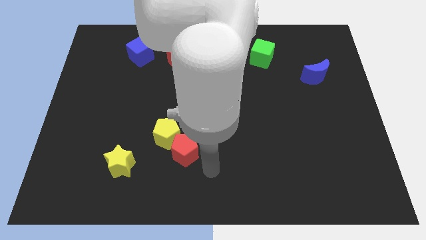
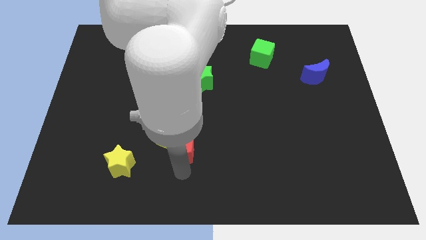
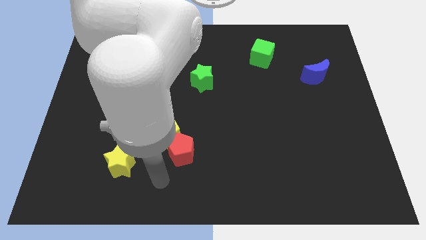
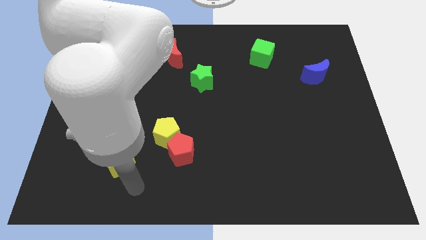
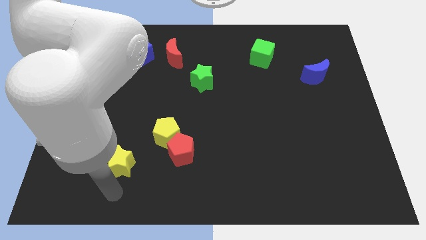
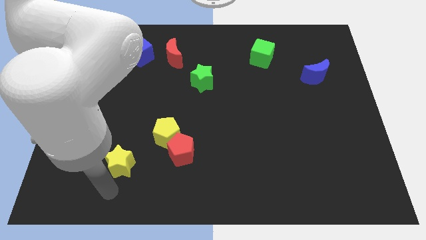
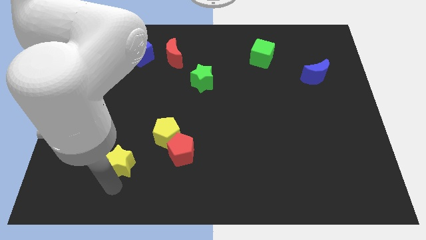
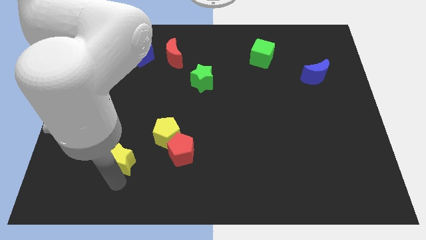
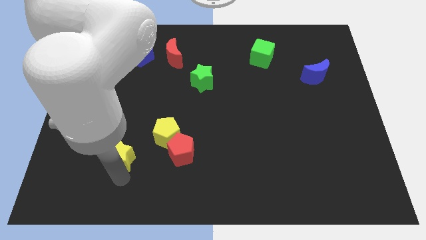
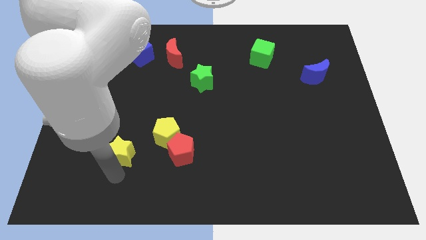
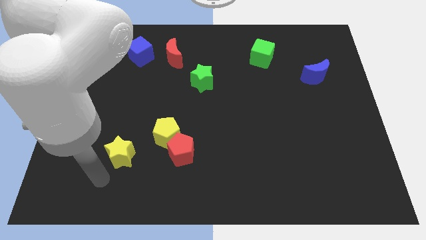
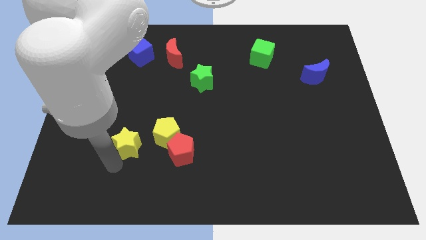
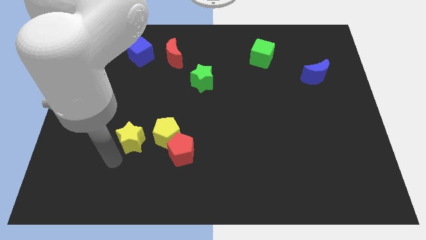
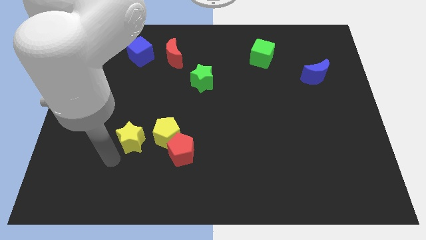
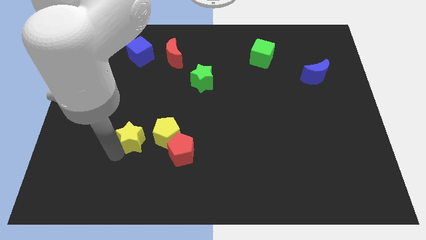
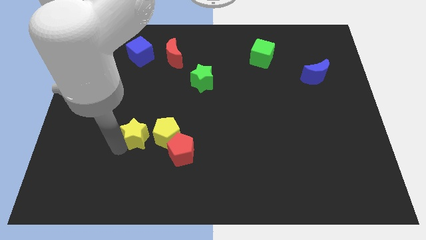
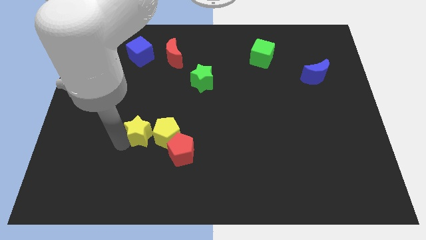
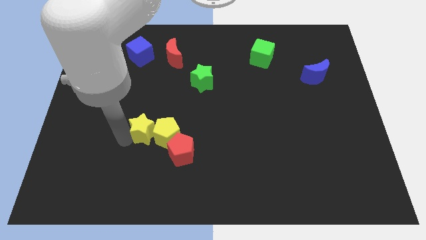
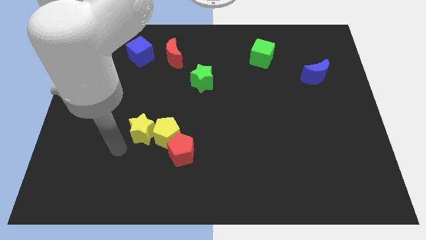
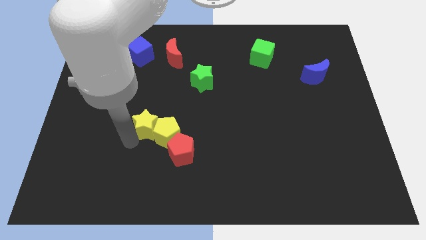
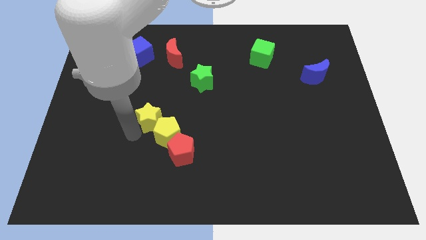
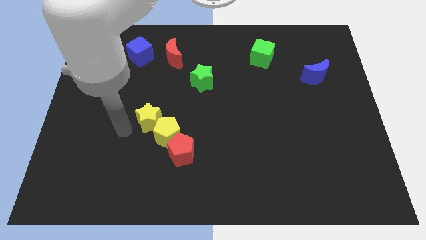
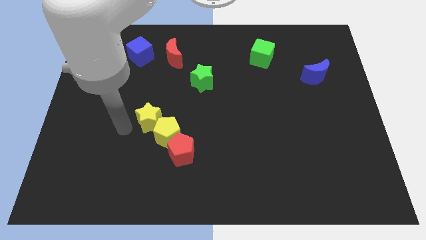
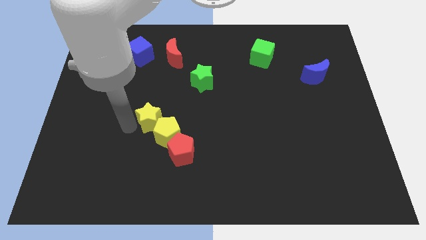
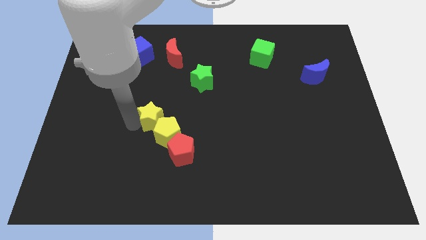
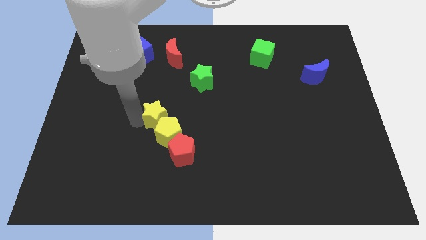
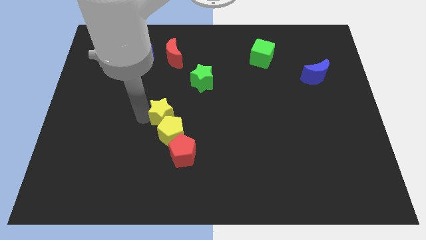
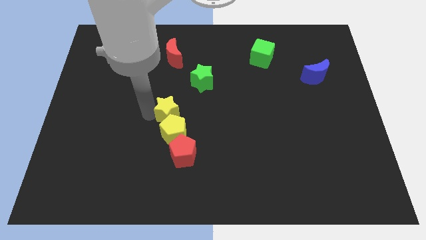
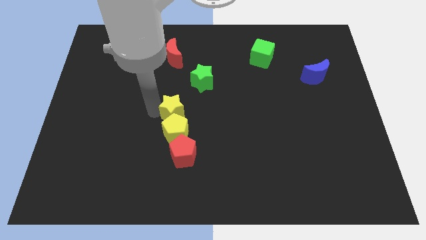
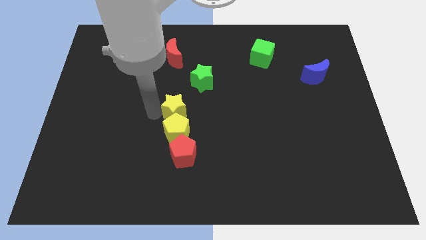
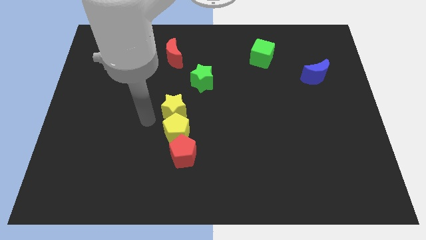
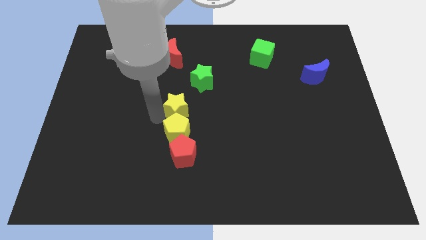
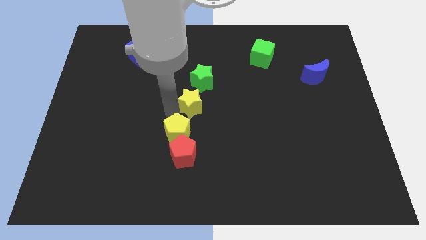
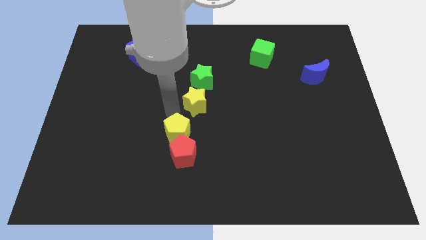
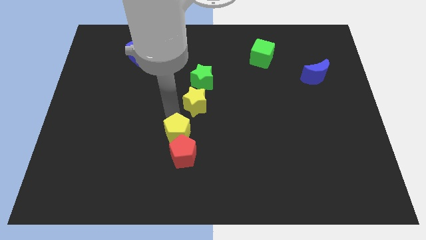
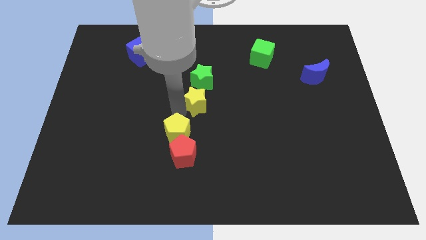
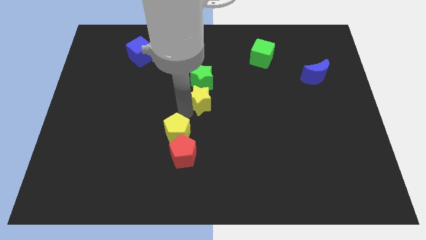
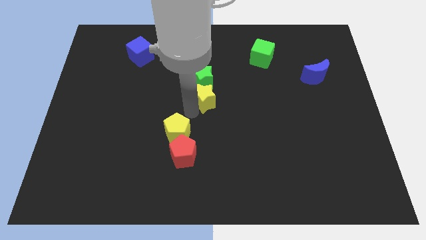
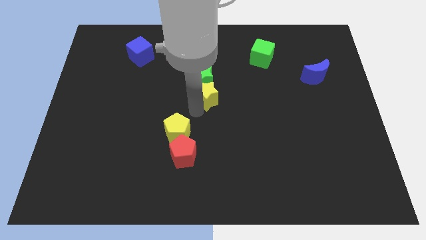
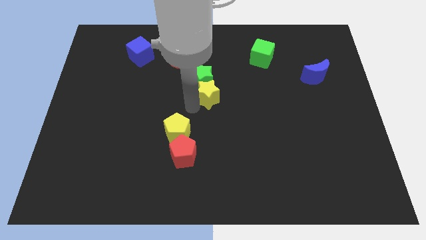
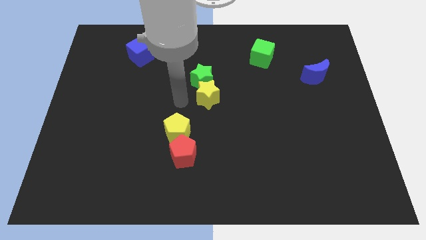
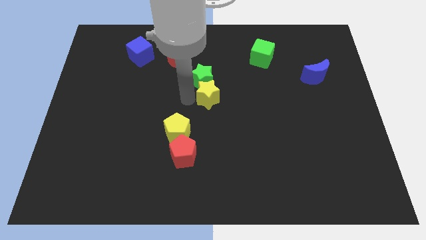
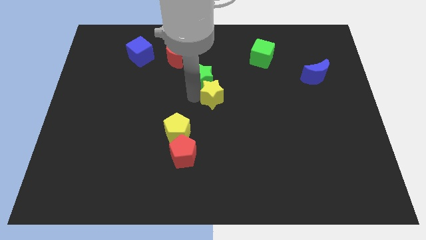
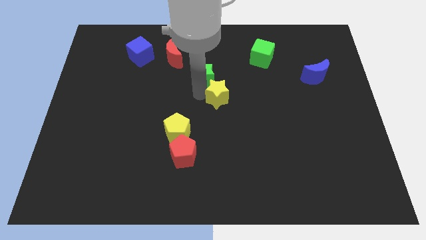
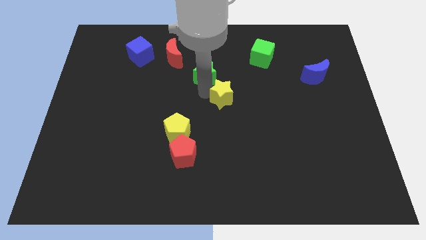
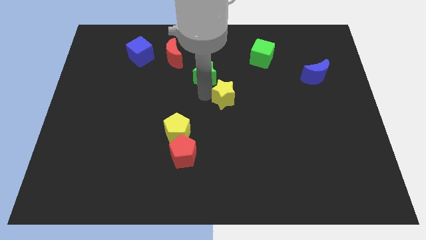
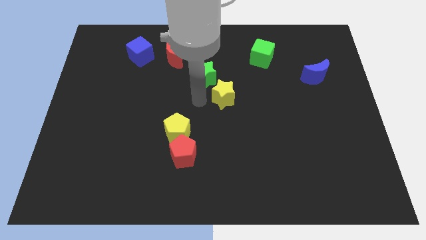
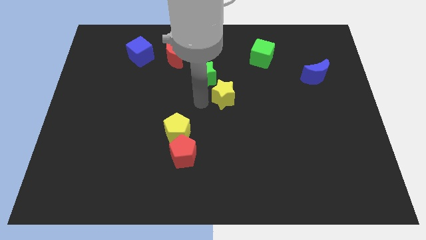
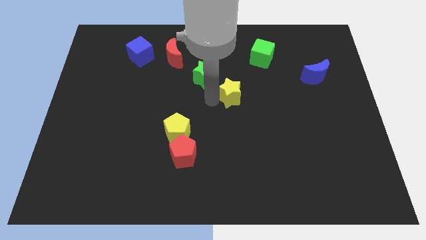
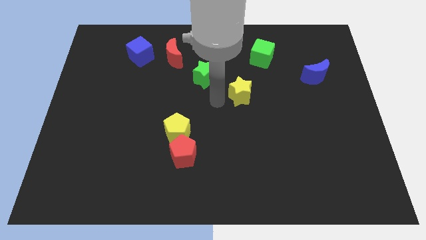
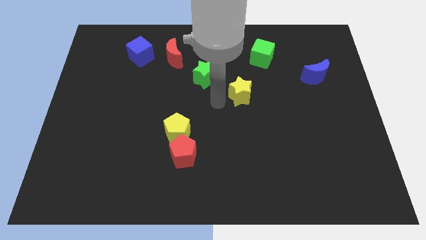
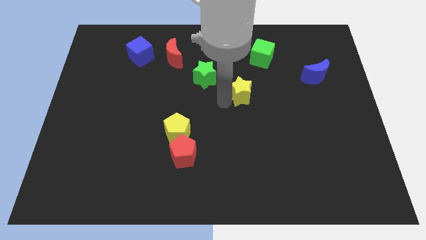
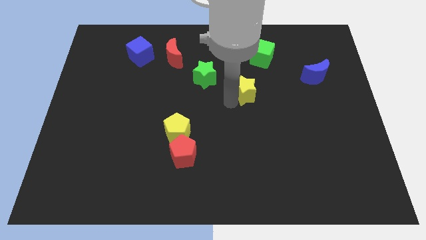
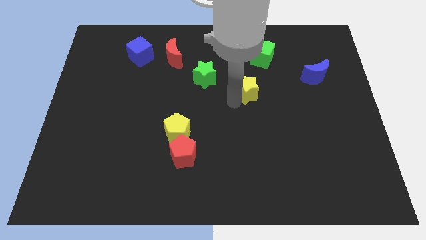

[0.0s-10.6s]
slide the yellow star below the green cube

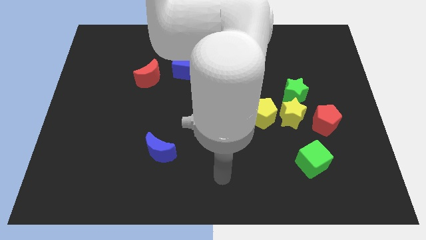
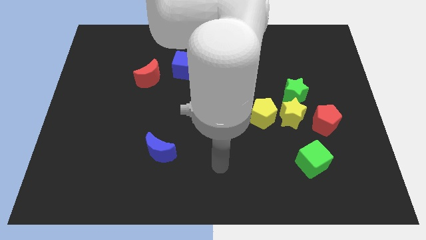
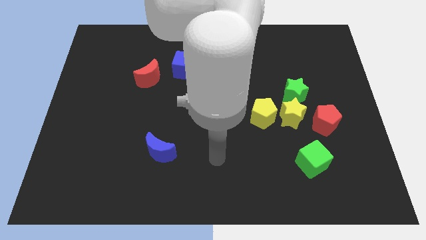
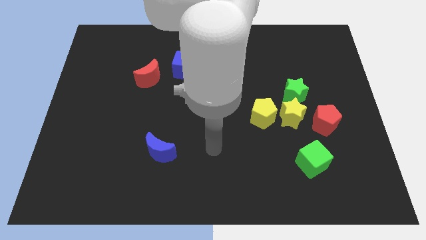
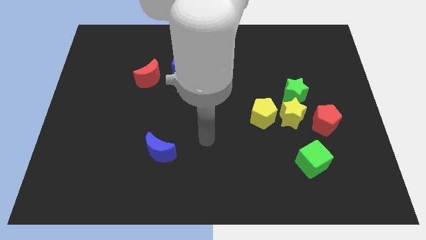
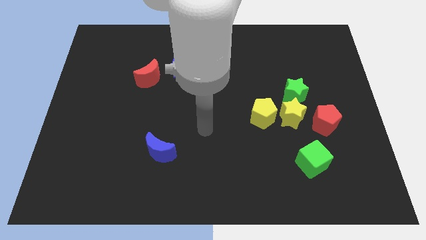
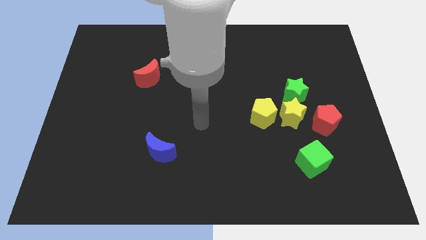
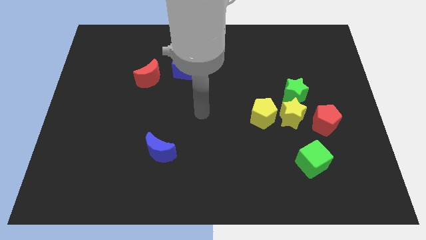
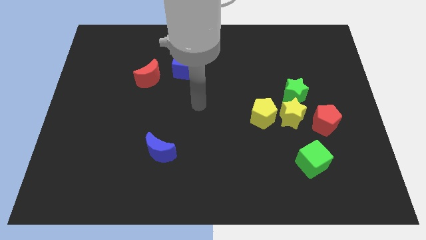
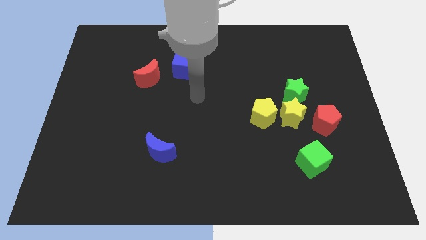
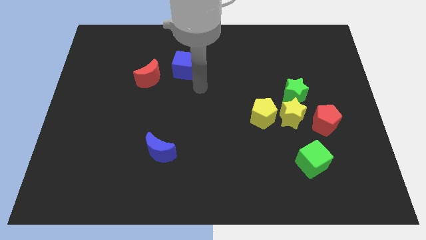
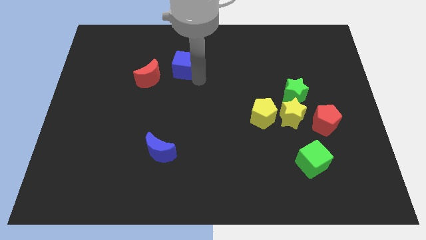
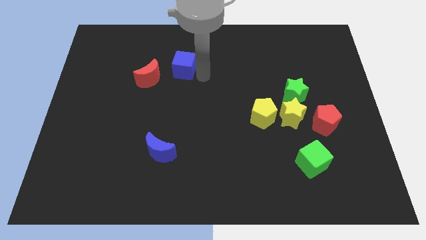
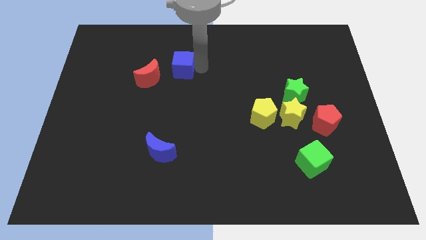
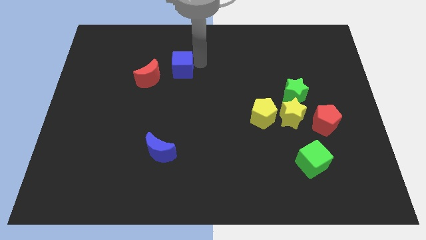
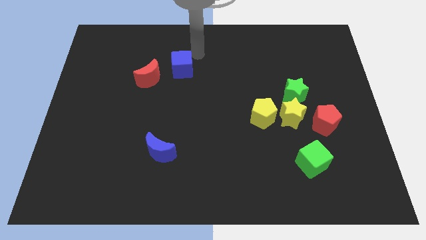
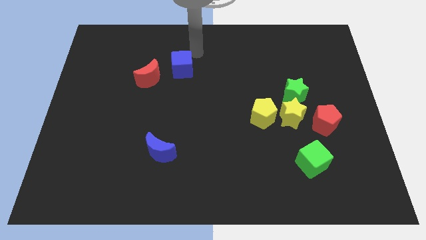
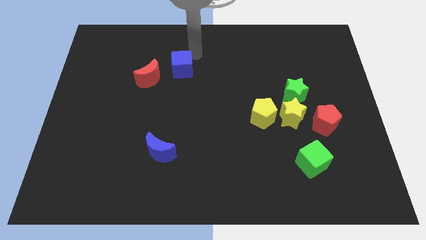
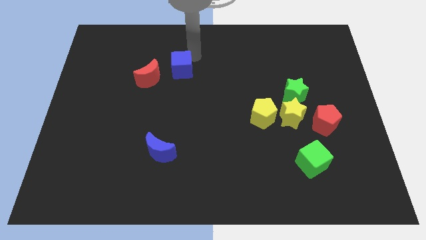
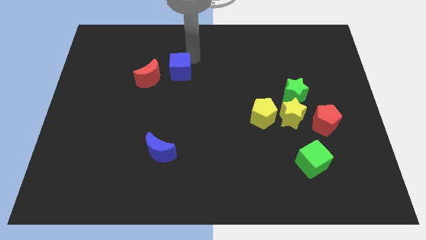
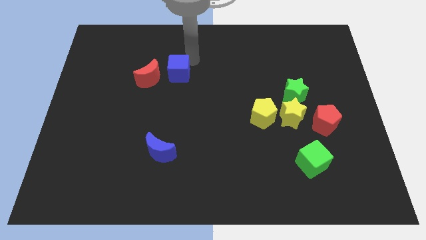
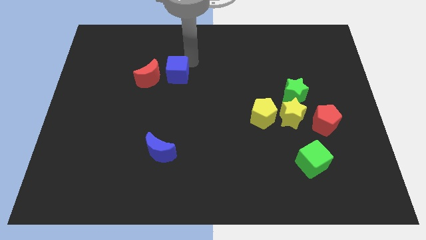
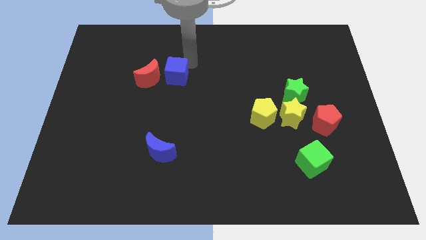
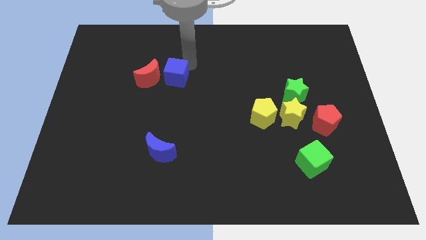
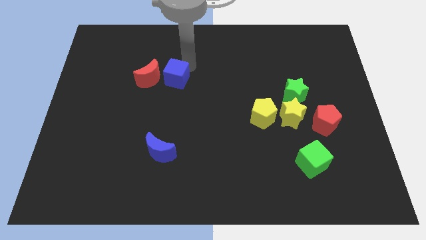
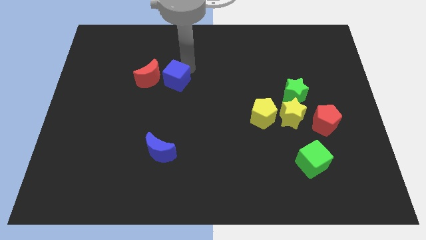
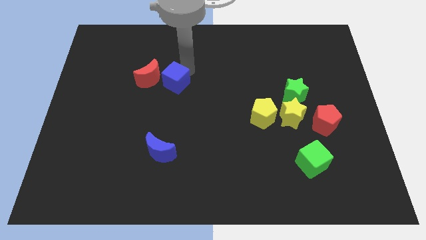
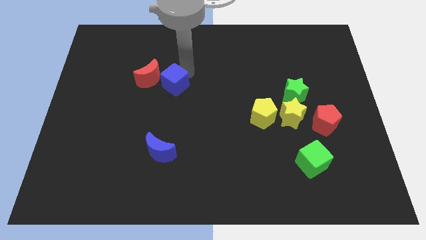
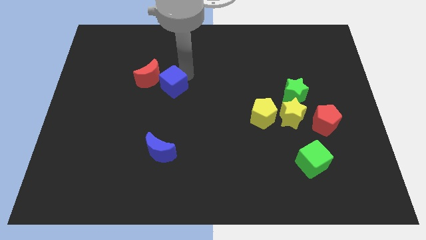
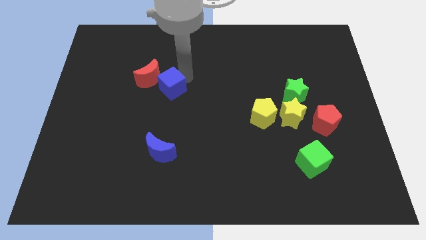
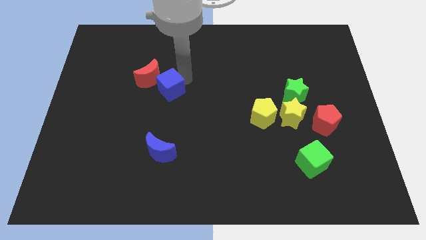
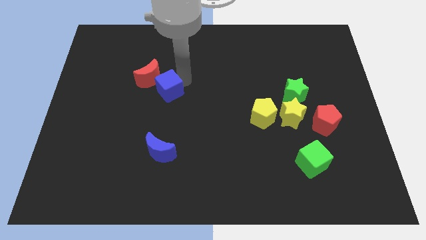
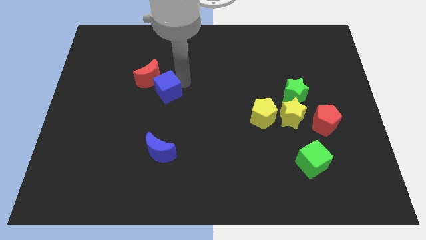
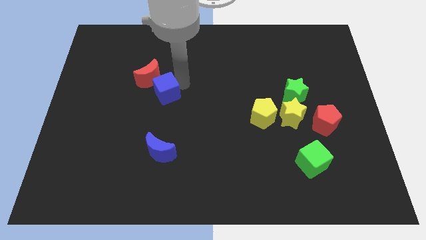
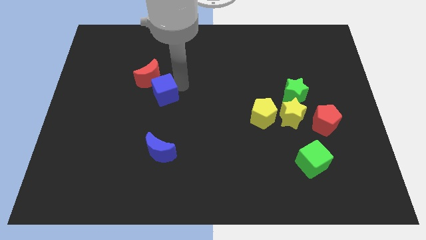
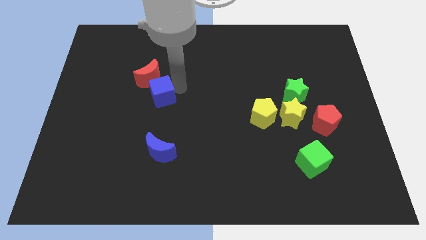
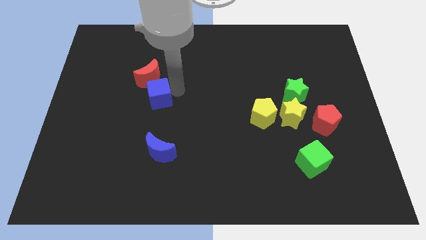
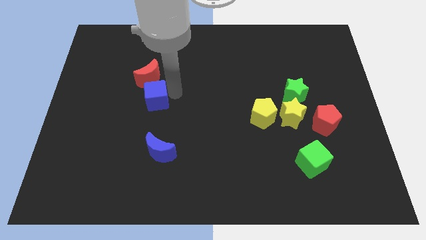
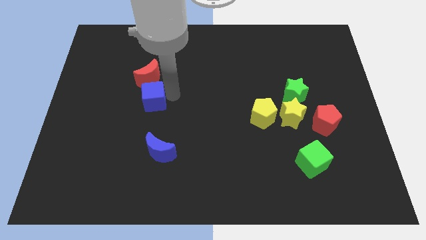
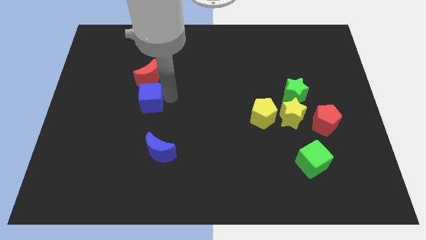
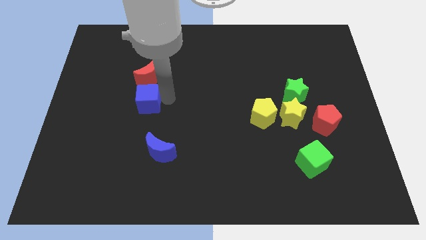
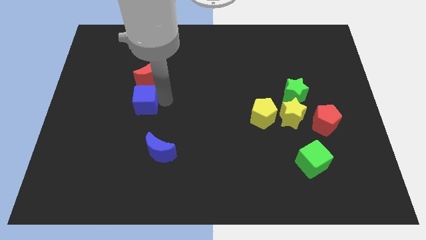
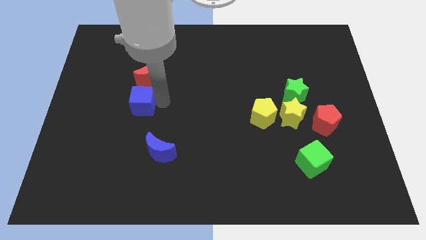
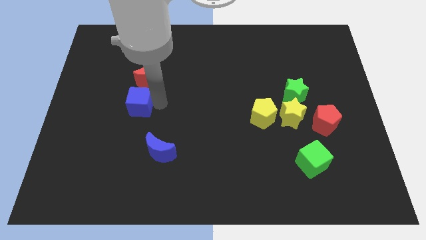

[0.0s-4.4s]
slide the blue cube to the bottom left side of the red moon
